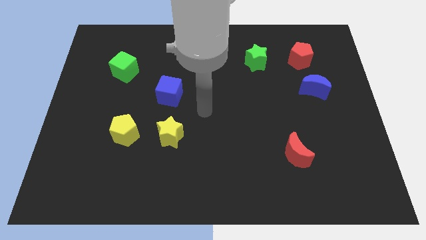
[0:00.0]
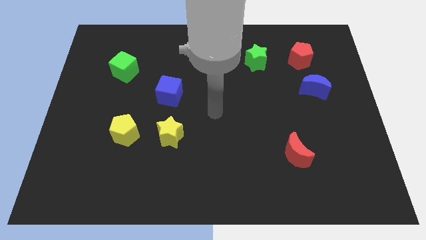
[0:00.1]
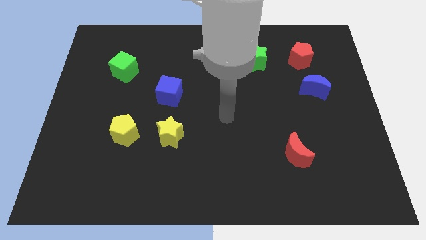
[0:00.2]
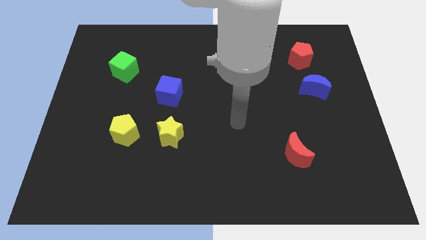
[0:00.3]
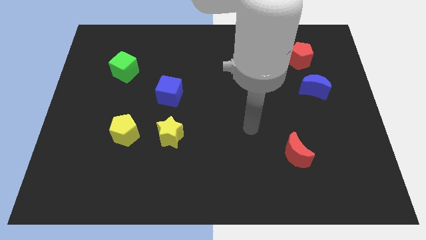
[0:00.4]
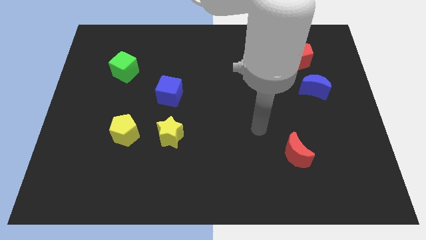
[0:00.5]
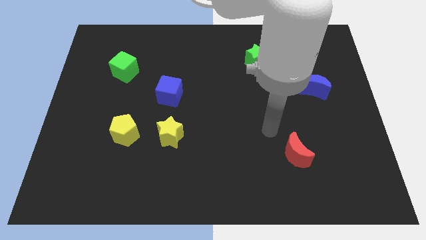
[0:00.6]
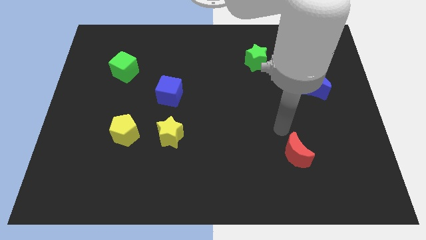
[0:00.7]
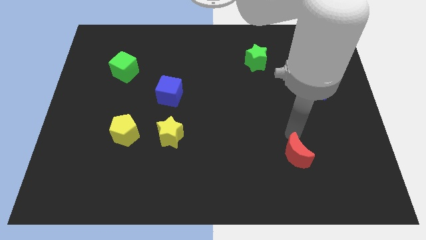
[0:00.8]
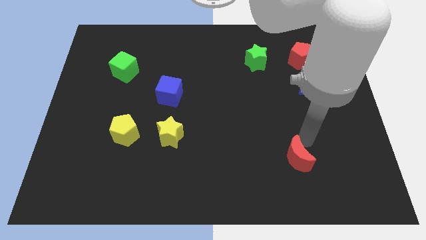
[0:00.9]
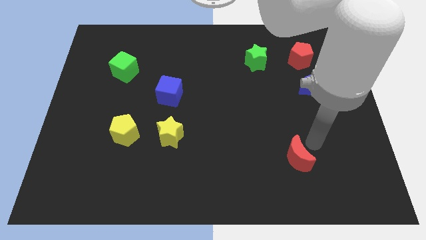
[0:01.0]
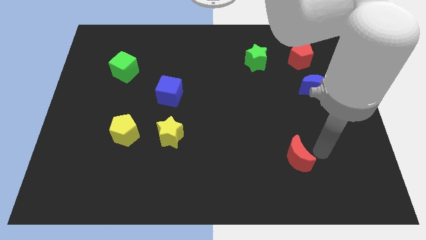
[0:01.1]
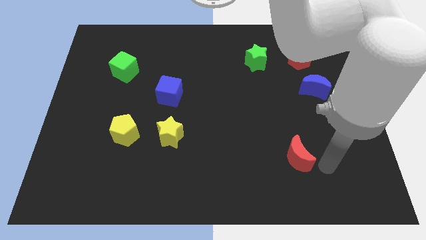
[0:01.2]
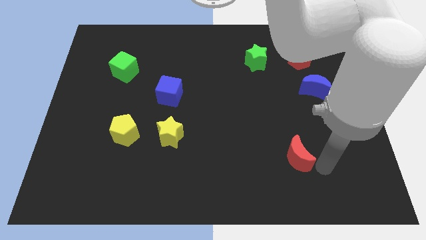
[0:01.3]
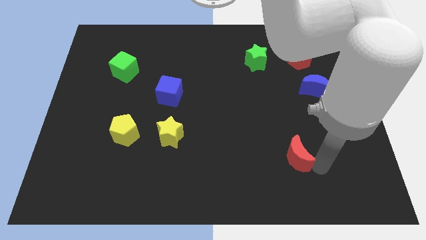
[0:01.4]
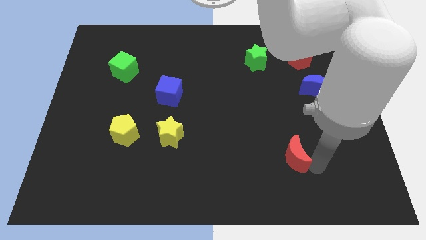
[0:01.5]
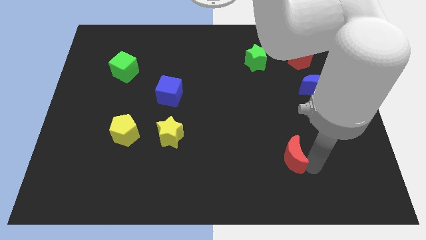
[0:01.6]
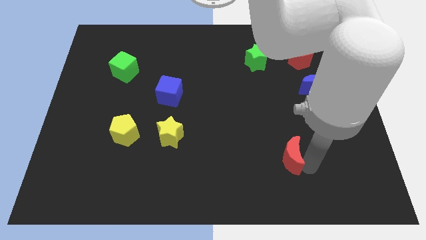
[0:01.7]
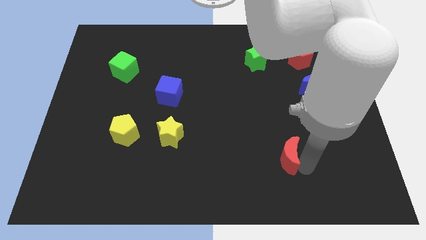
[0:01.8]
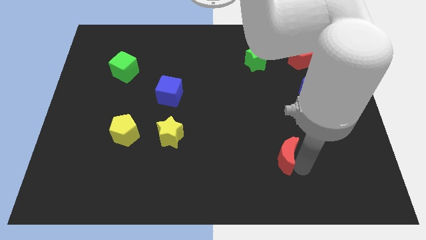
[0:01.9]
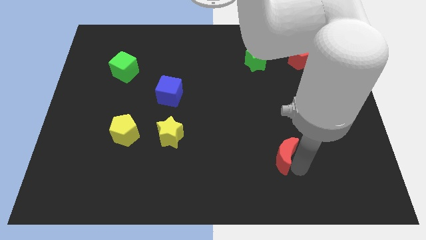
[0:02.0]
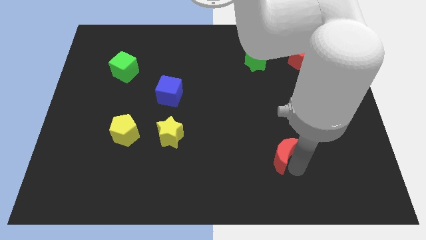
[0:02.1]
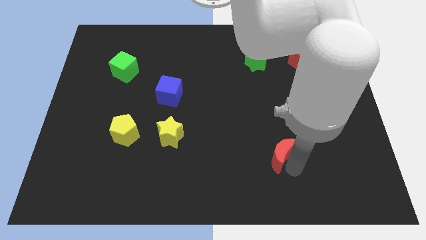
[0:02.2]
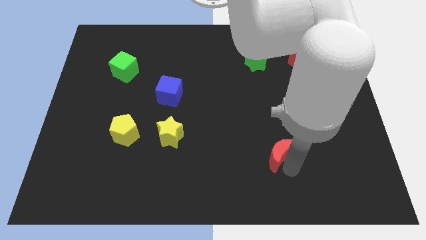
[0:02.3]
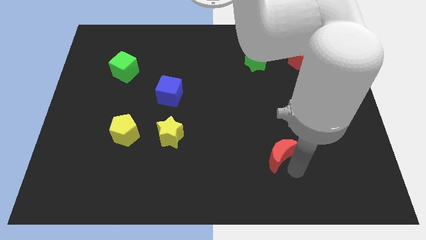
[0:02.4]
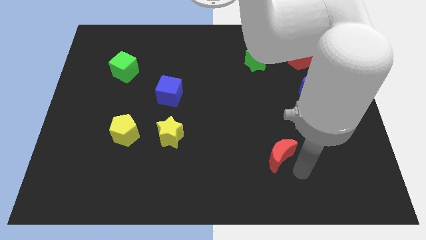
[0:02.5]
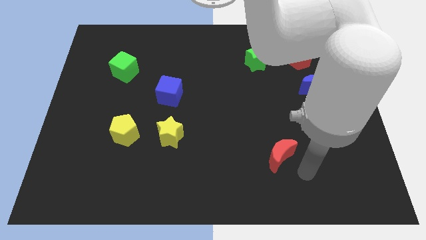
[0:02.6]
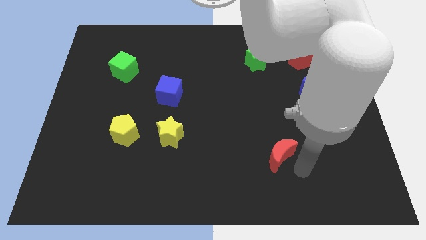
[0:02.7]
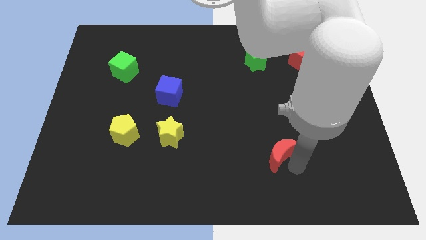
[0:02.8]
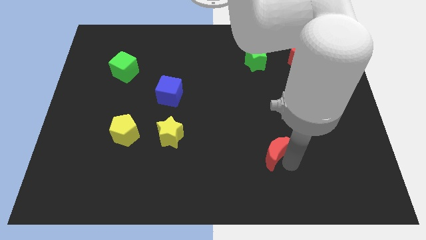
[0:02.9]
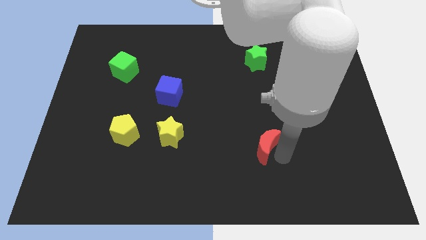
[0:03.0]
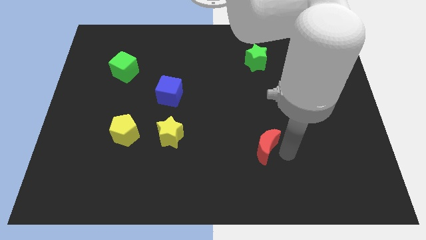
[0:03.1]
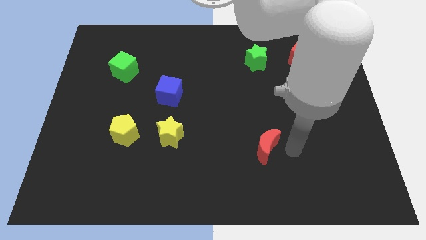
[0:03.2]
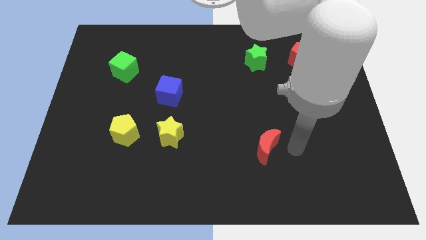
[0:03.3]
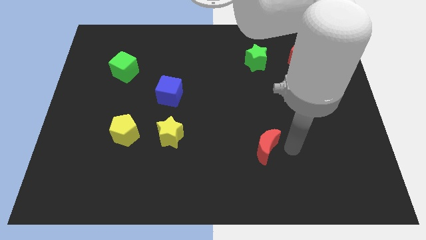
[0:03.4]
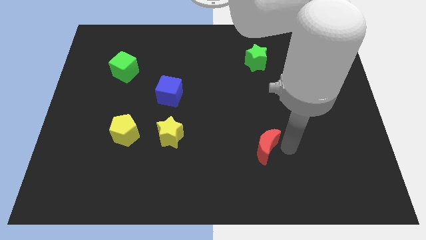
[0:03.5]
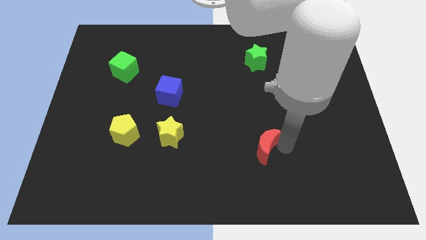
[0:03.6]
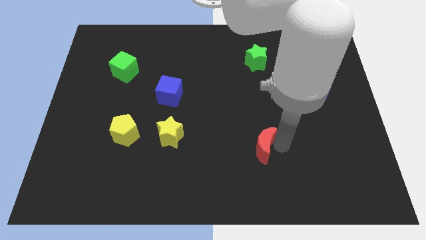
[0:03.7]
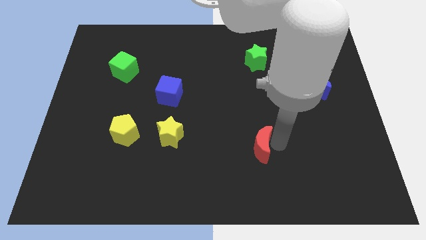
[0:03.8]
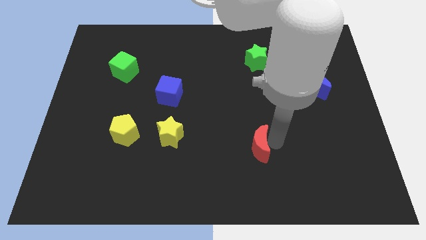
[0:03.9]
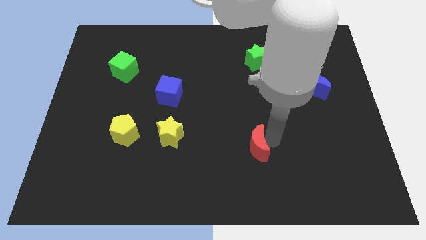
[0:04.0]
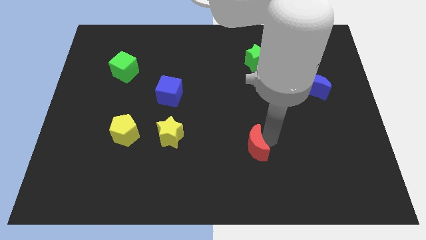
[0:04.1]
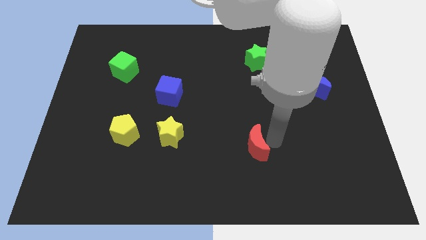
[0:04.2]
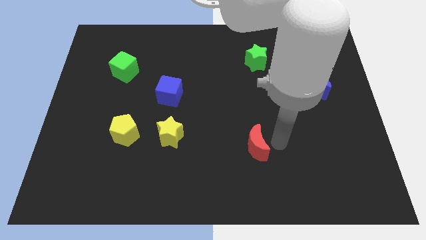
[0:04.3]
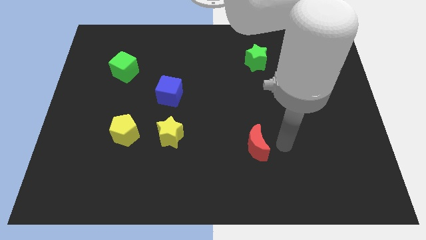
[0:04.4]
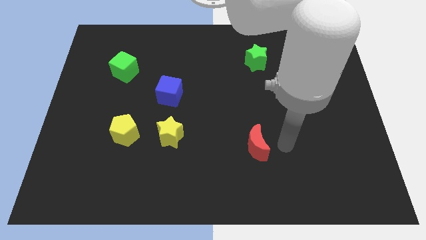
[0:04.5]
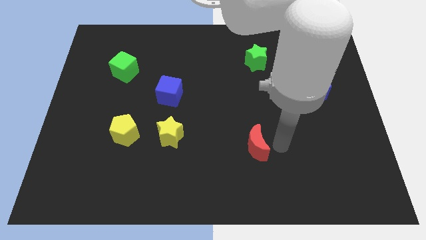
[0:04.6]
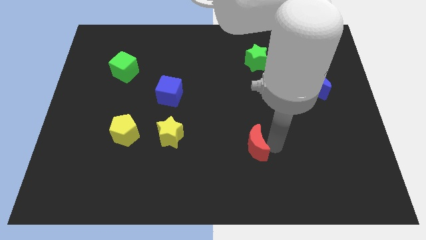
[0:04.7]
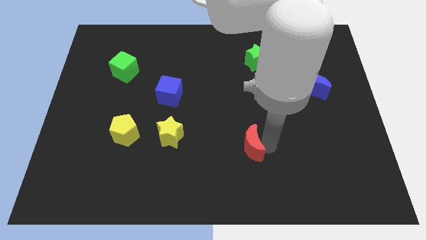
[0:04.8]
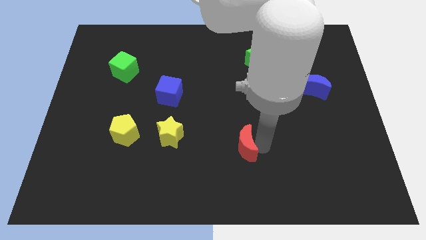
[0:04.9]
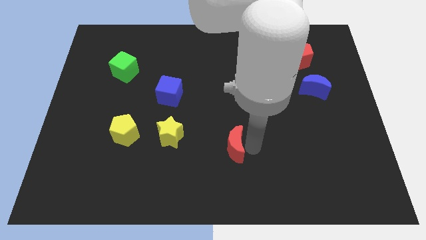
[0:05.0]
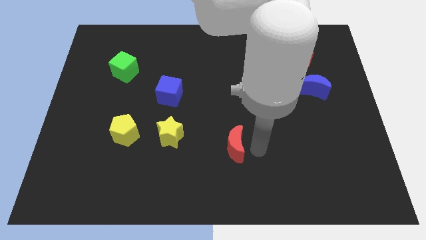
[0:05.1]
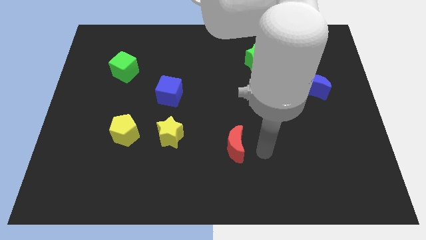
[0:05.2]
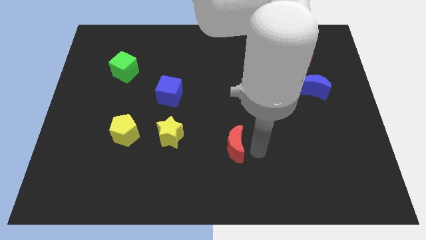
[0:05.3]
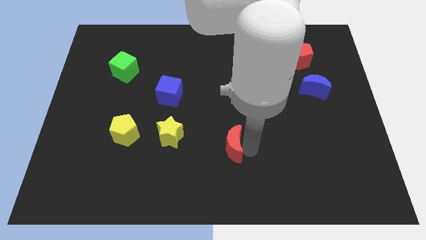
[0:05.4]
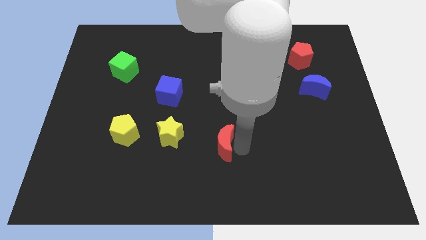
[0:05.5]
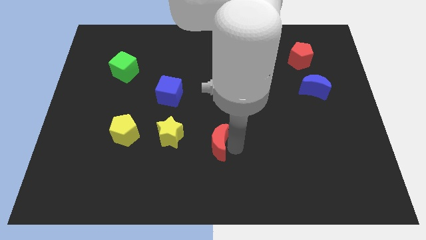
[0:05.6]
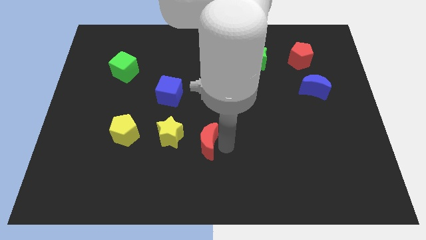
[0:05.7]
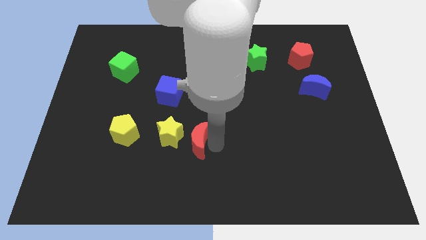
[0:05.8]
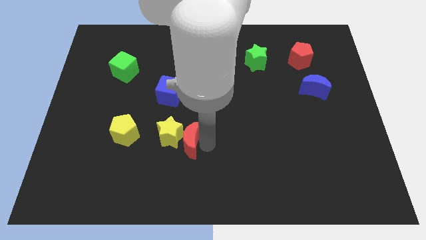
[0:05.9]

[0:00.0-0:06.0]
put the red moon to the yellow star
